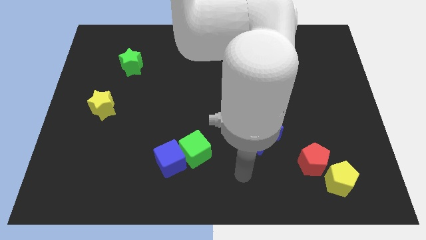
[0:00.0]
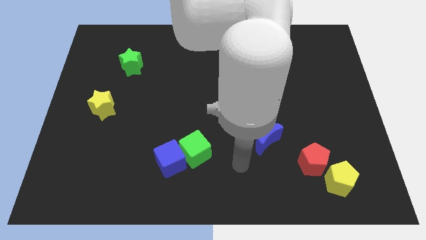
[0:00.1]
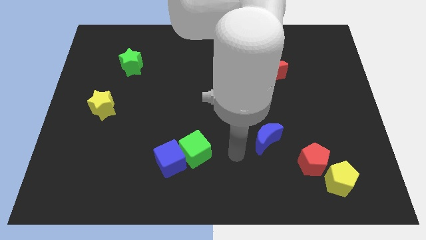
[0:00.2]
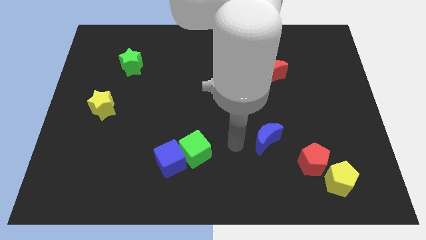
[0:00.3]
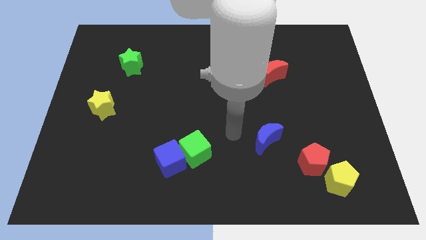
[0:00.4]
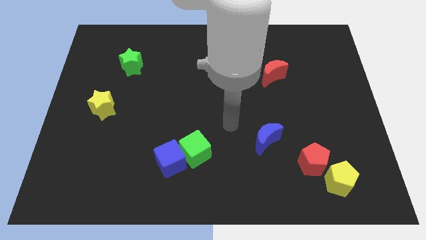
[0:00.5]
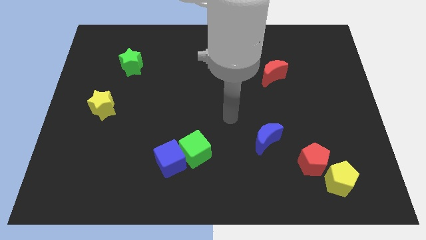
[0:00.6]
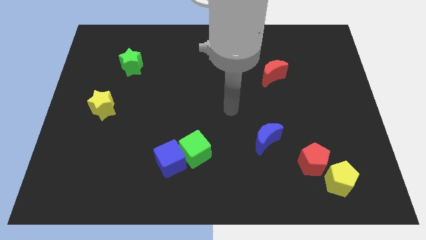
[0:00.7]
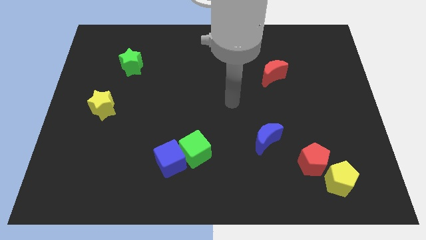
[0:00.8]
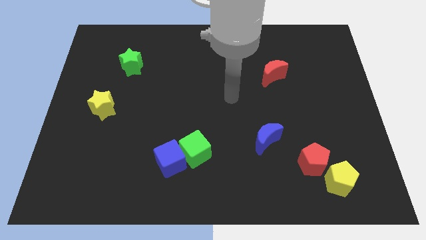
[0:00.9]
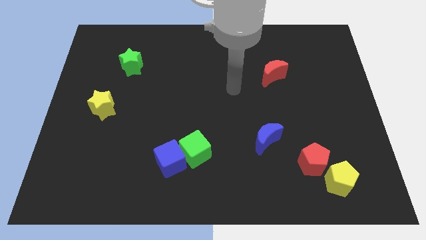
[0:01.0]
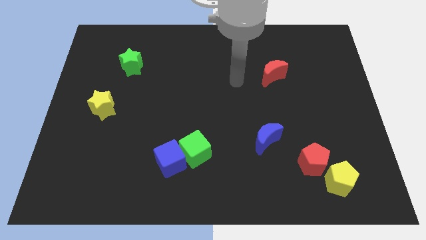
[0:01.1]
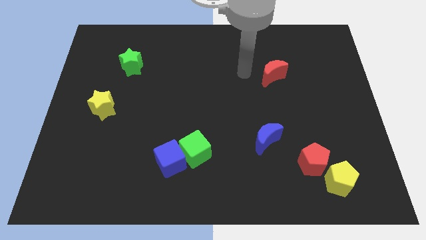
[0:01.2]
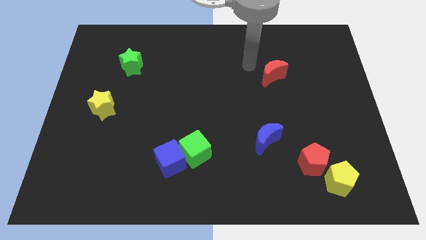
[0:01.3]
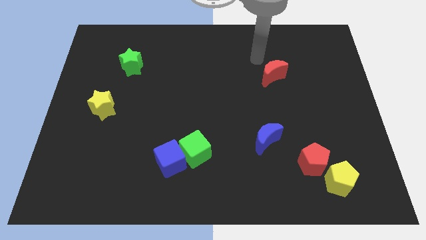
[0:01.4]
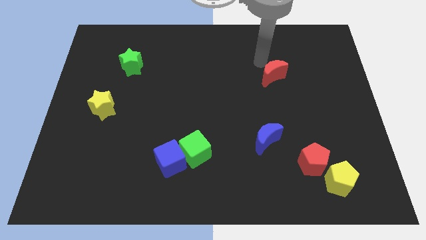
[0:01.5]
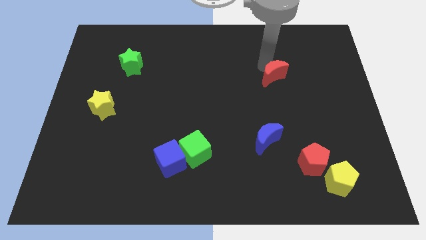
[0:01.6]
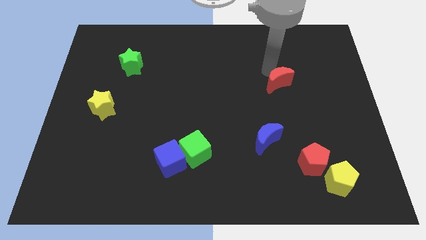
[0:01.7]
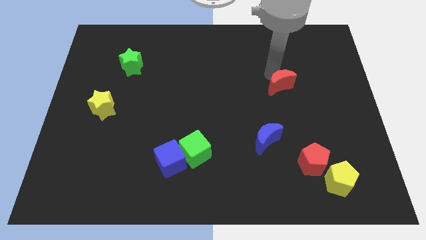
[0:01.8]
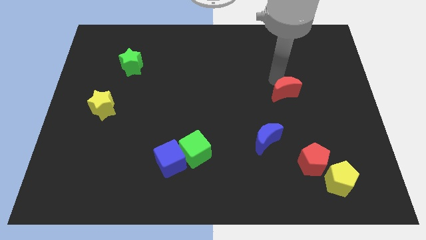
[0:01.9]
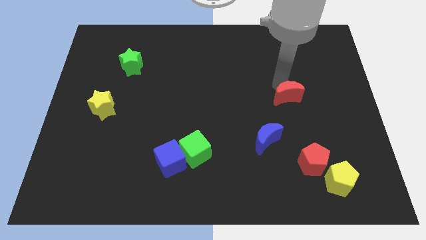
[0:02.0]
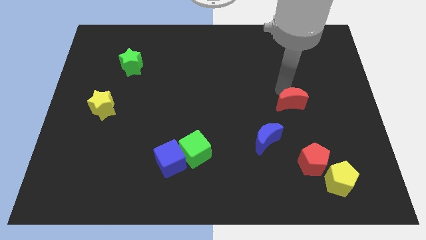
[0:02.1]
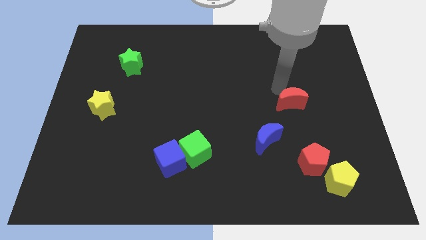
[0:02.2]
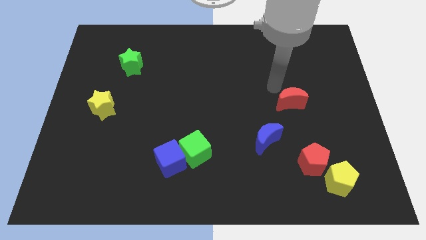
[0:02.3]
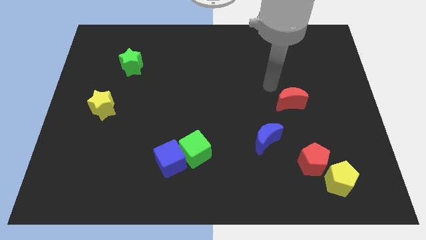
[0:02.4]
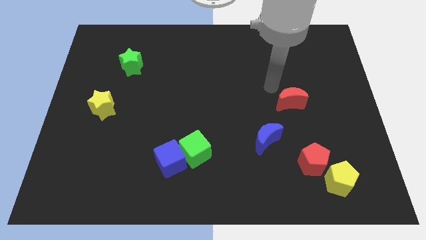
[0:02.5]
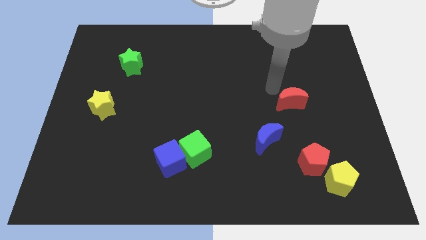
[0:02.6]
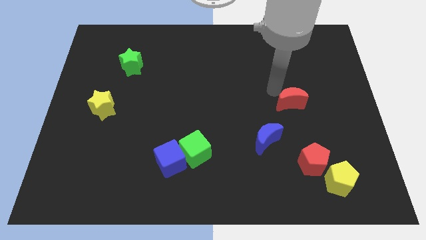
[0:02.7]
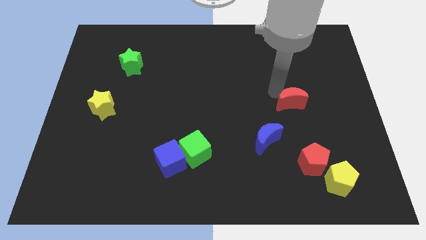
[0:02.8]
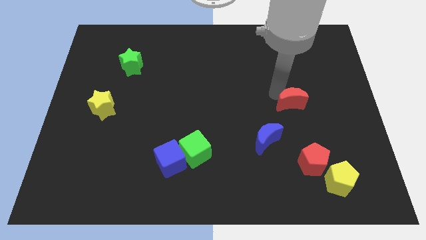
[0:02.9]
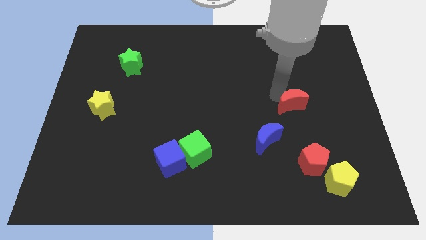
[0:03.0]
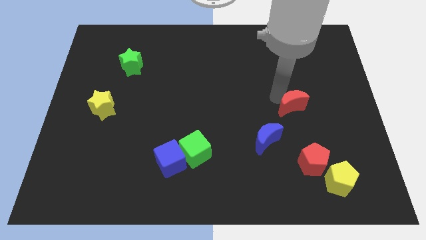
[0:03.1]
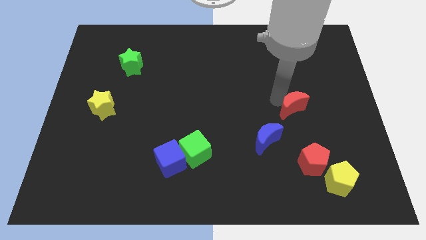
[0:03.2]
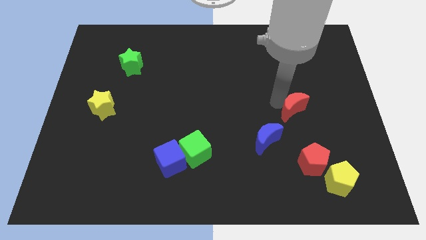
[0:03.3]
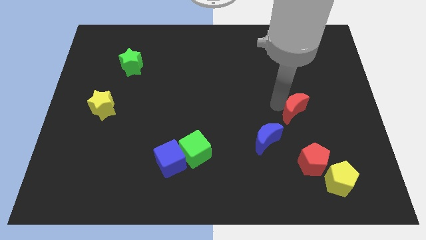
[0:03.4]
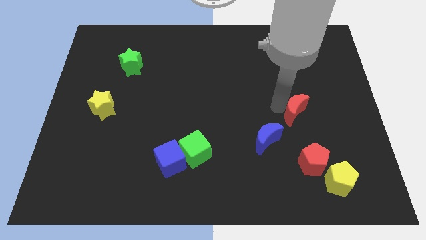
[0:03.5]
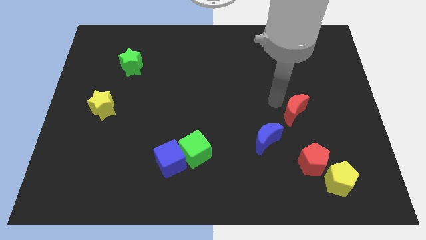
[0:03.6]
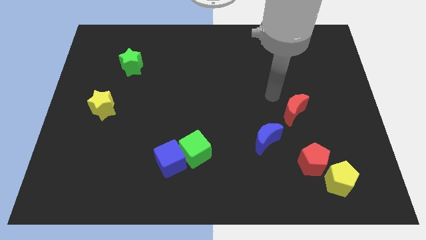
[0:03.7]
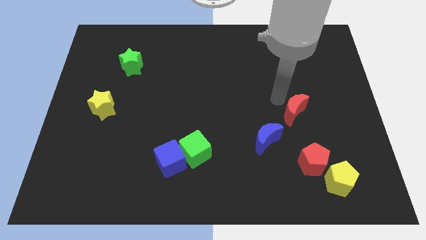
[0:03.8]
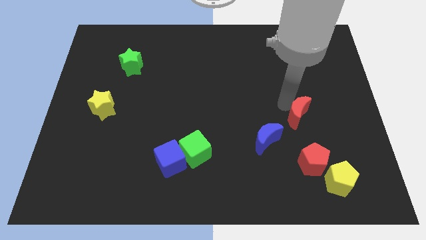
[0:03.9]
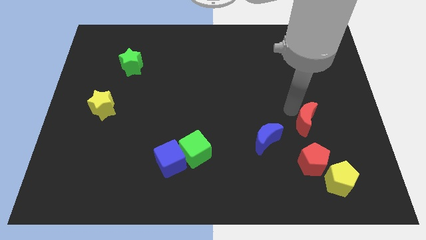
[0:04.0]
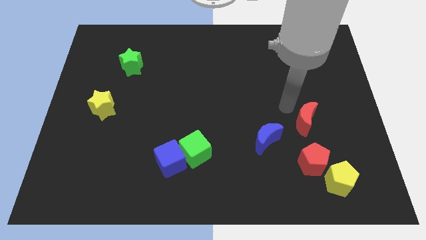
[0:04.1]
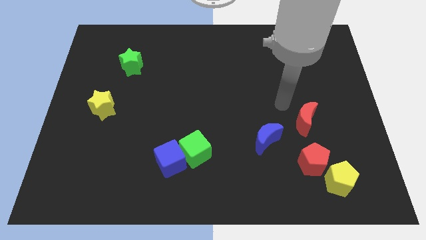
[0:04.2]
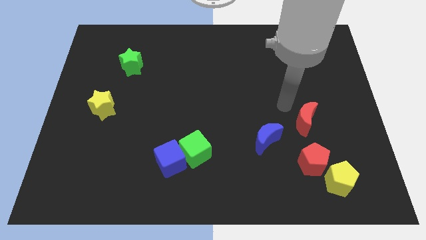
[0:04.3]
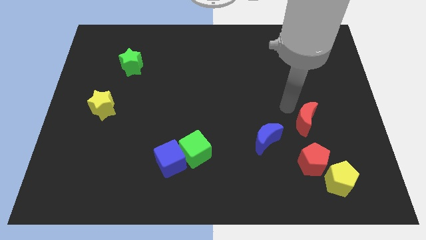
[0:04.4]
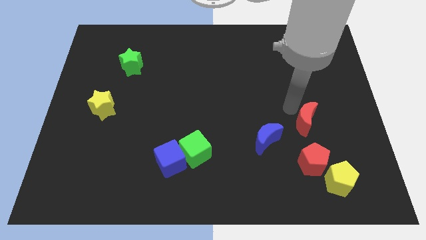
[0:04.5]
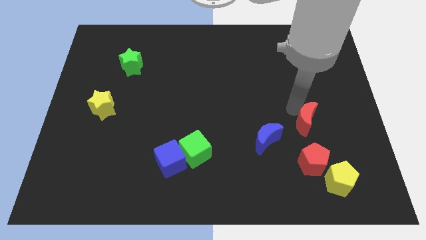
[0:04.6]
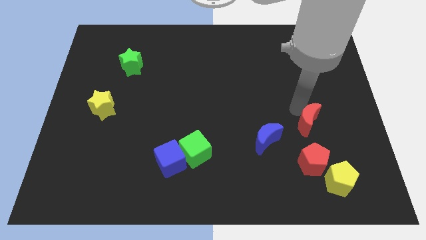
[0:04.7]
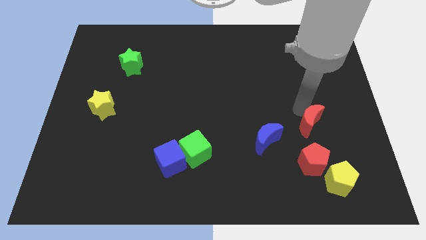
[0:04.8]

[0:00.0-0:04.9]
push the red moon to the top side of the yellow pentagon

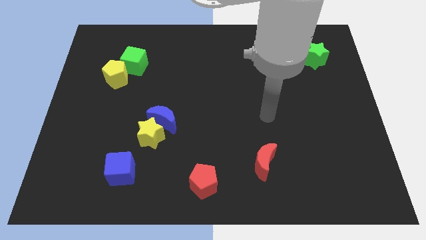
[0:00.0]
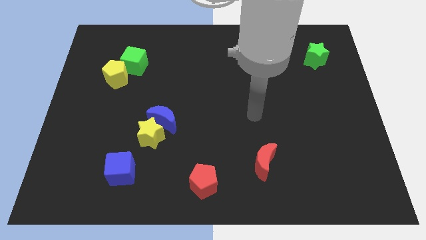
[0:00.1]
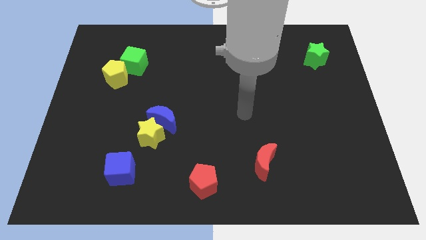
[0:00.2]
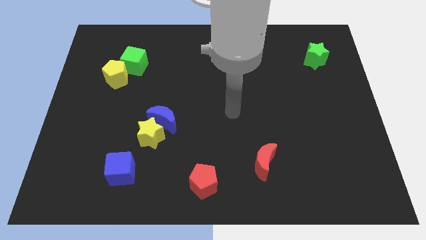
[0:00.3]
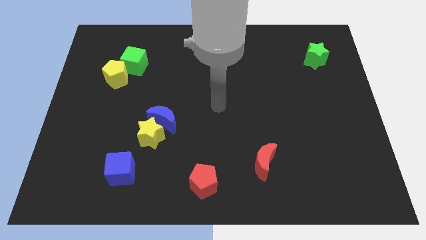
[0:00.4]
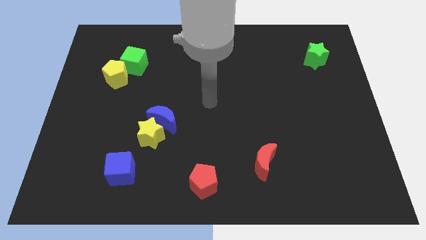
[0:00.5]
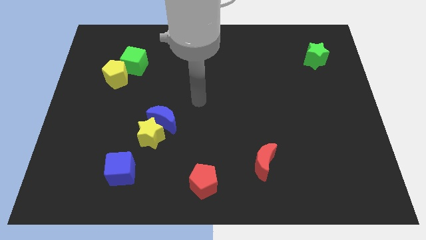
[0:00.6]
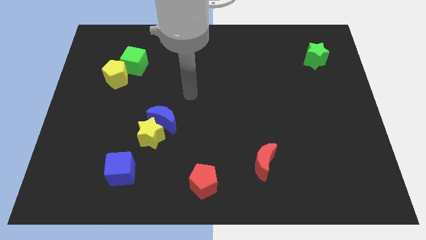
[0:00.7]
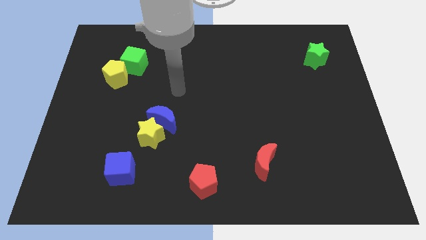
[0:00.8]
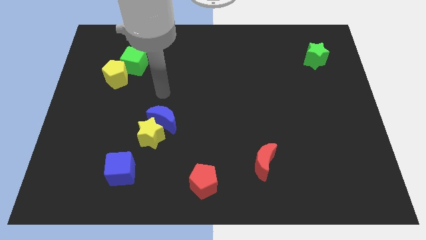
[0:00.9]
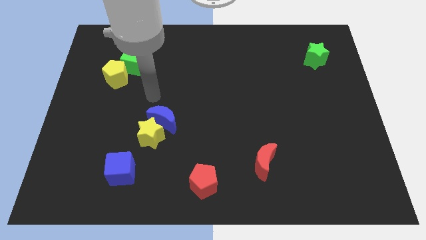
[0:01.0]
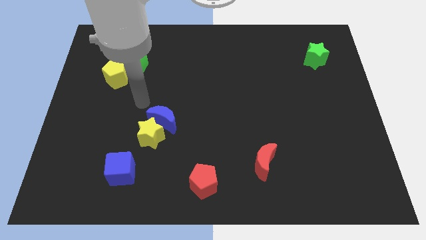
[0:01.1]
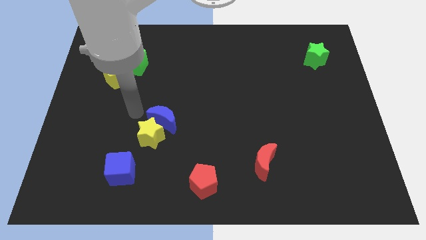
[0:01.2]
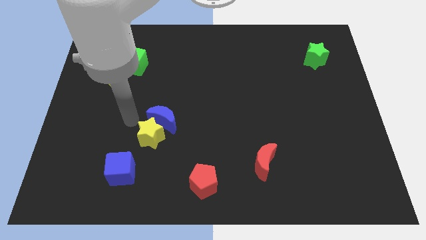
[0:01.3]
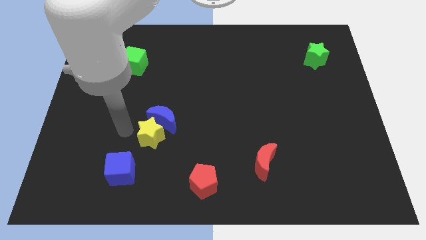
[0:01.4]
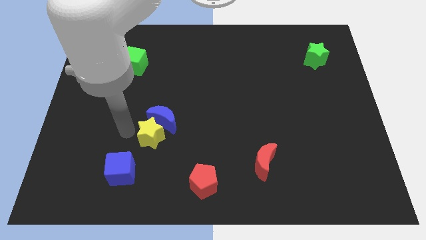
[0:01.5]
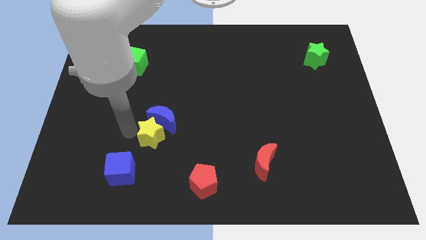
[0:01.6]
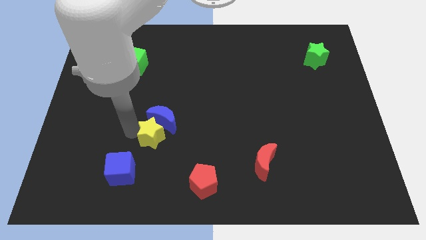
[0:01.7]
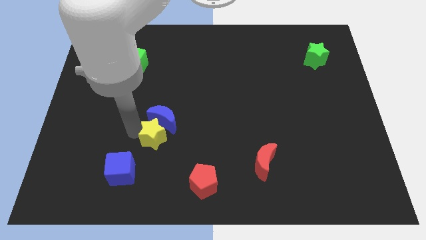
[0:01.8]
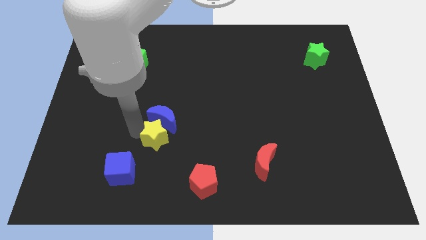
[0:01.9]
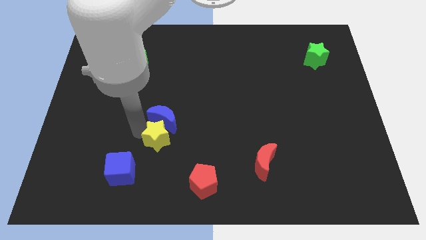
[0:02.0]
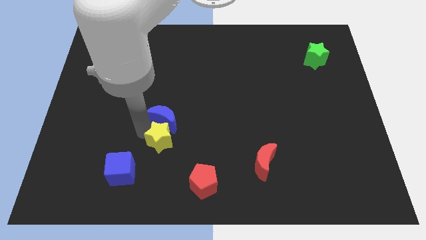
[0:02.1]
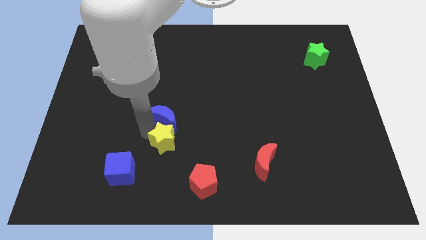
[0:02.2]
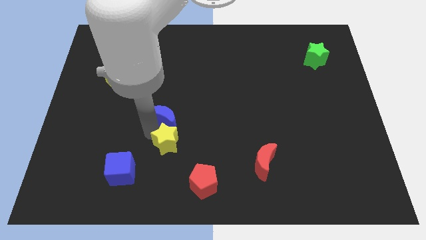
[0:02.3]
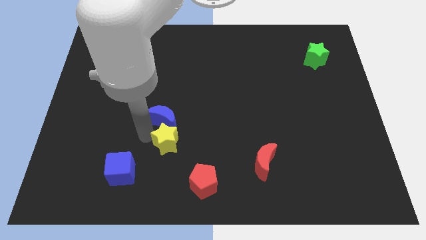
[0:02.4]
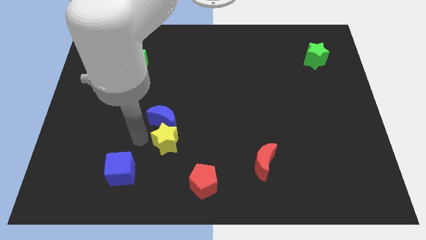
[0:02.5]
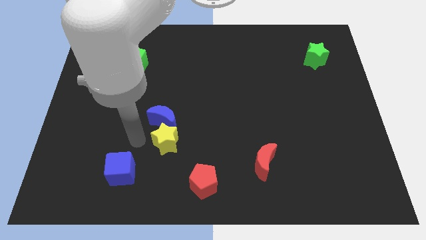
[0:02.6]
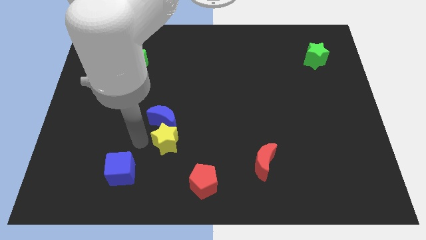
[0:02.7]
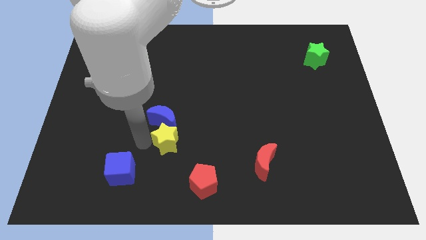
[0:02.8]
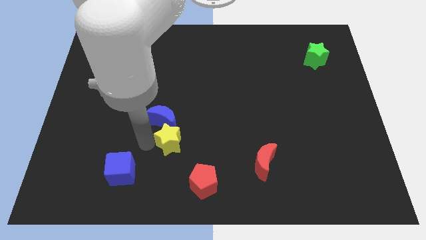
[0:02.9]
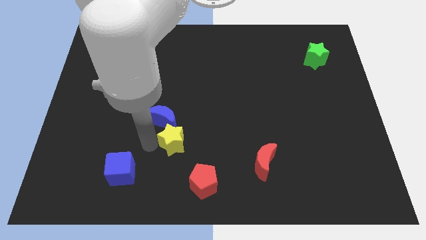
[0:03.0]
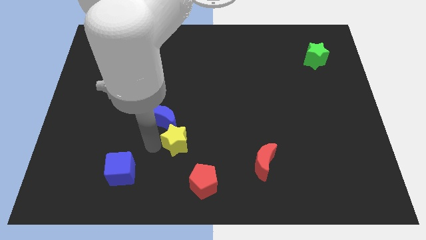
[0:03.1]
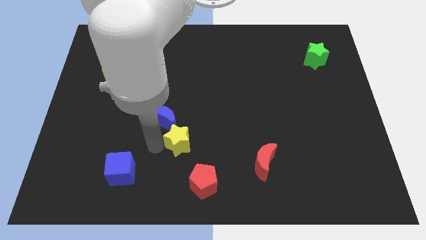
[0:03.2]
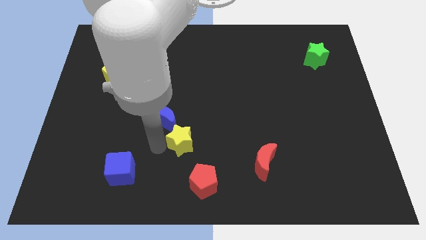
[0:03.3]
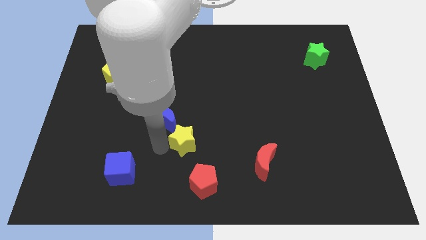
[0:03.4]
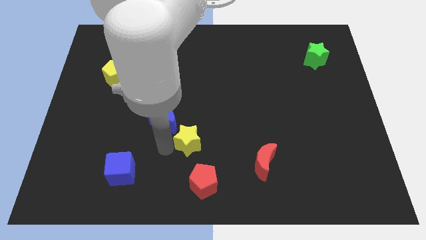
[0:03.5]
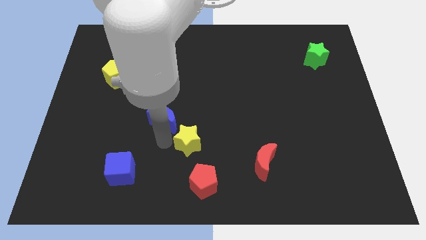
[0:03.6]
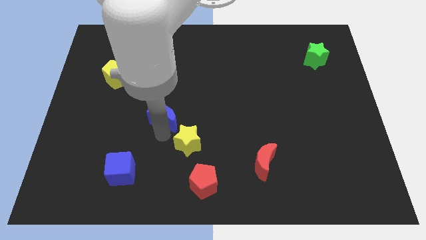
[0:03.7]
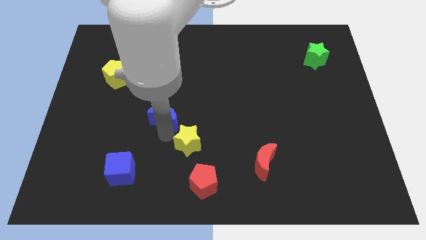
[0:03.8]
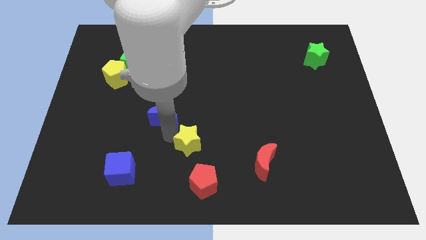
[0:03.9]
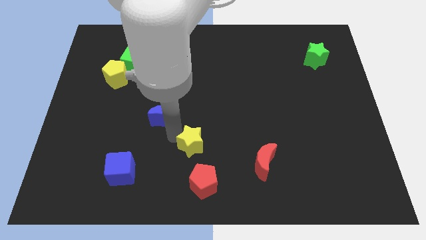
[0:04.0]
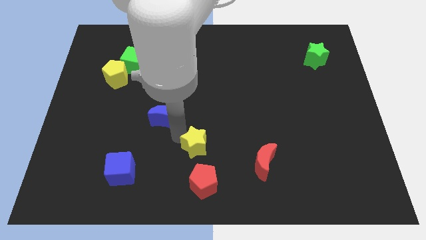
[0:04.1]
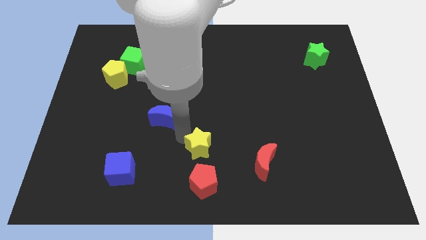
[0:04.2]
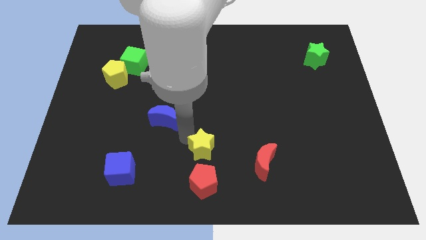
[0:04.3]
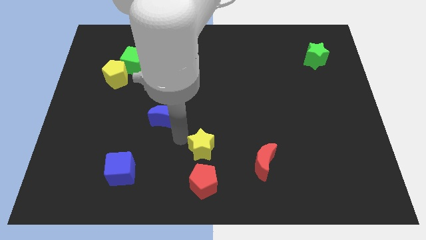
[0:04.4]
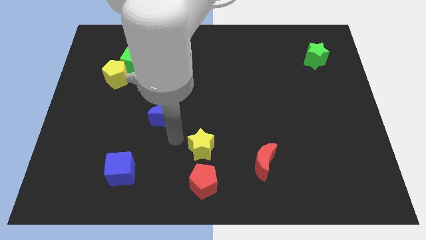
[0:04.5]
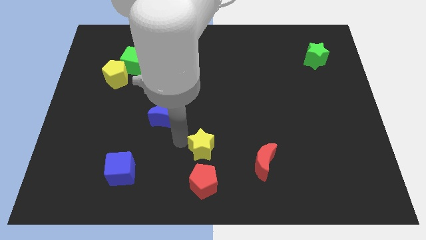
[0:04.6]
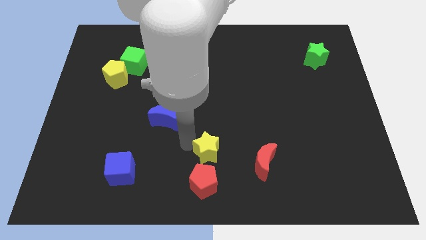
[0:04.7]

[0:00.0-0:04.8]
slide the yellow star to the top right side of the red pentagon
